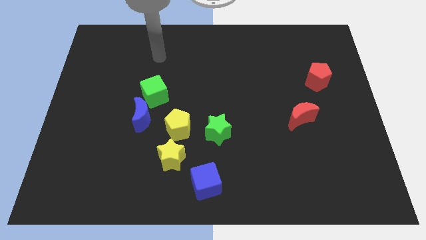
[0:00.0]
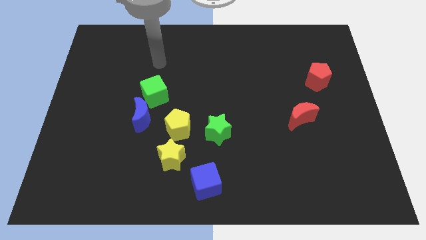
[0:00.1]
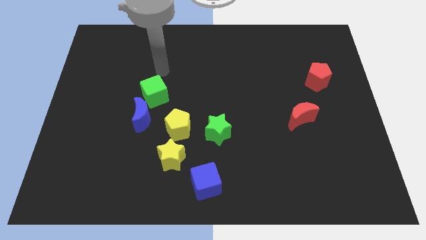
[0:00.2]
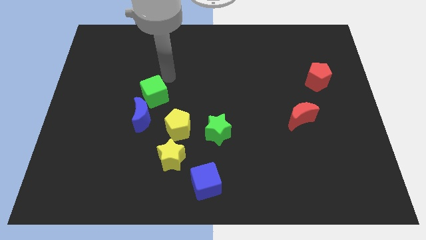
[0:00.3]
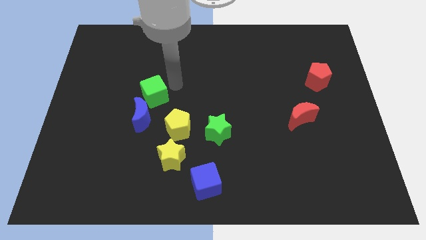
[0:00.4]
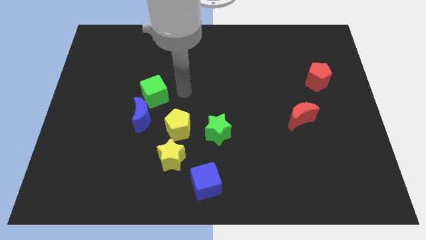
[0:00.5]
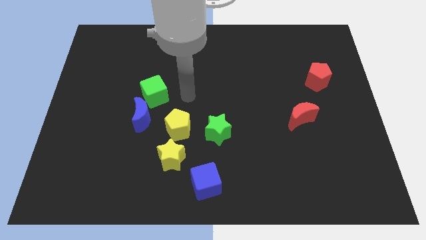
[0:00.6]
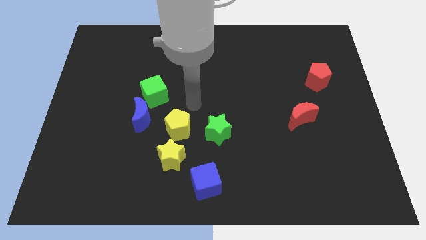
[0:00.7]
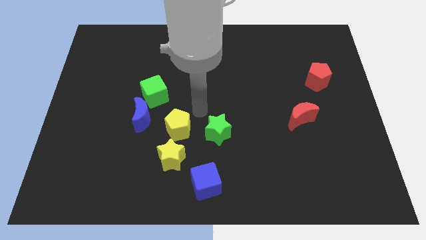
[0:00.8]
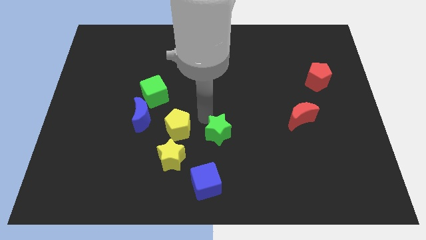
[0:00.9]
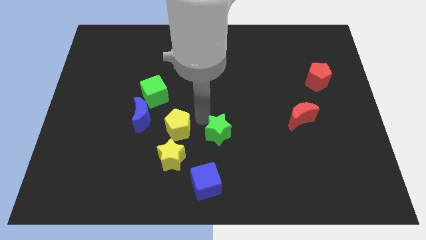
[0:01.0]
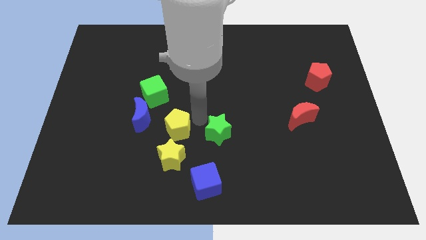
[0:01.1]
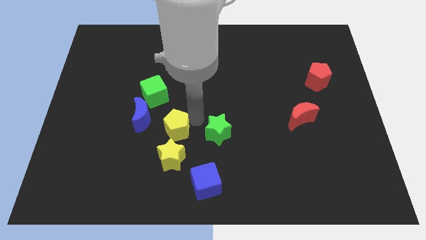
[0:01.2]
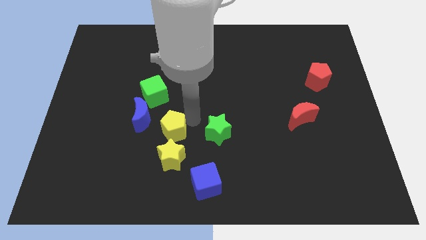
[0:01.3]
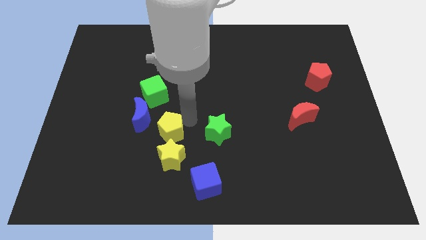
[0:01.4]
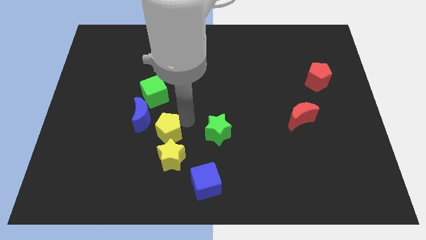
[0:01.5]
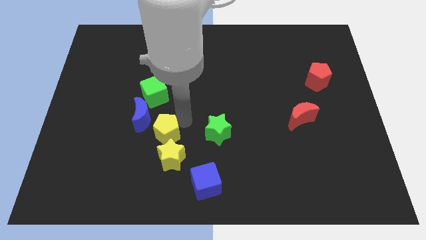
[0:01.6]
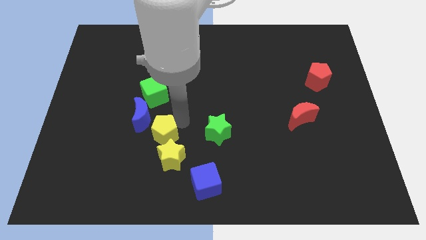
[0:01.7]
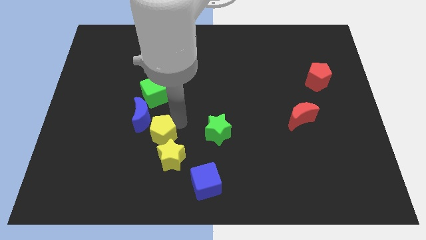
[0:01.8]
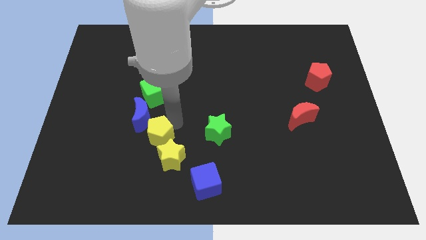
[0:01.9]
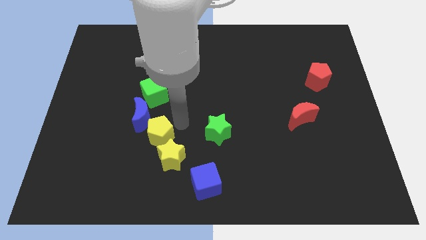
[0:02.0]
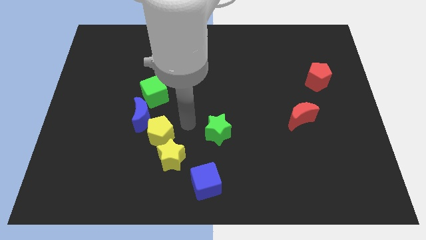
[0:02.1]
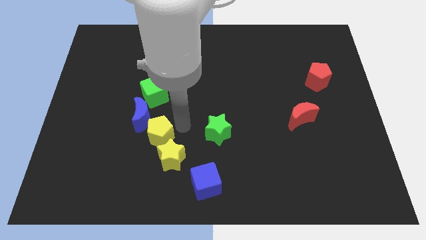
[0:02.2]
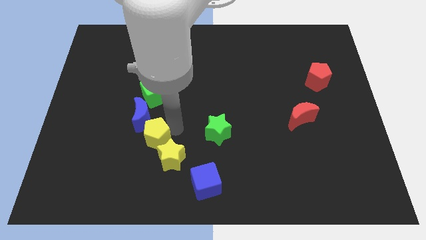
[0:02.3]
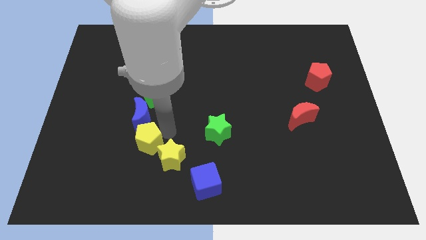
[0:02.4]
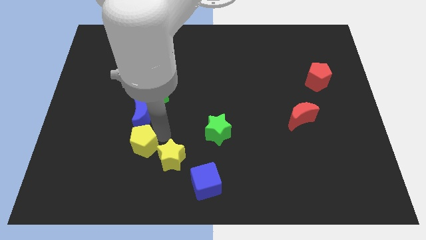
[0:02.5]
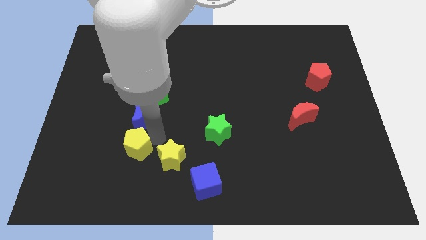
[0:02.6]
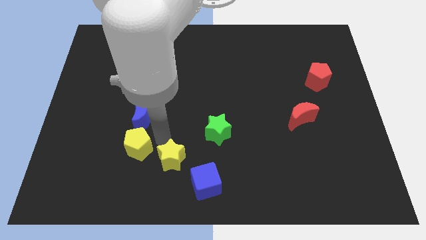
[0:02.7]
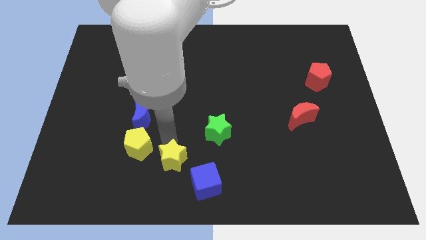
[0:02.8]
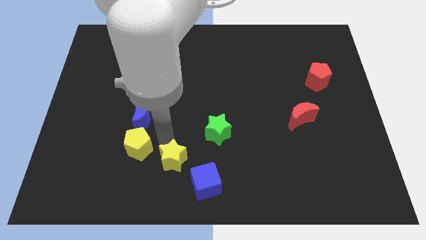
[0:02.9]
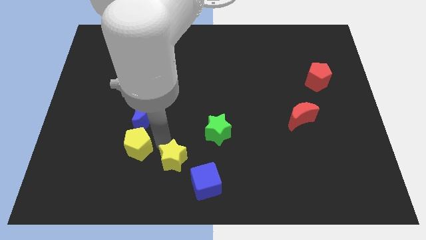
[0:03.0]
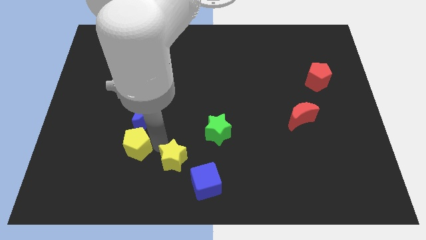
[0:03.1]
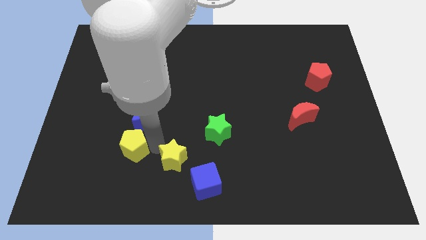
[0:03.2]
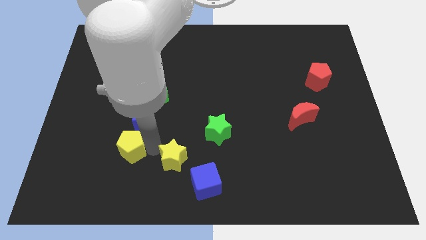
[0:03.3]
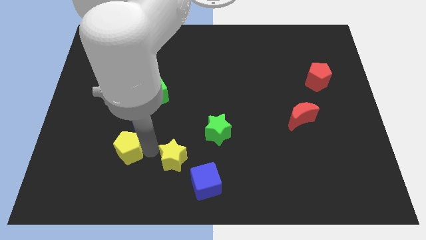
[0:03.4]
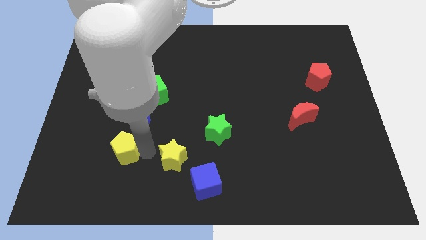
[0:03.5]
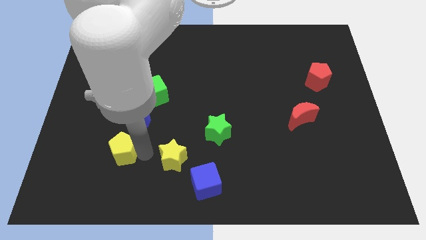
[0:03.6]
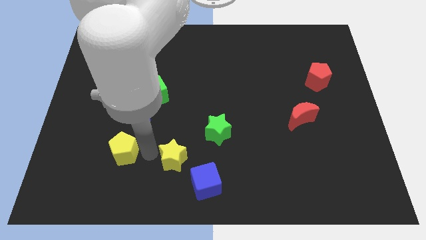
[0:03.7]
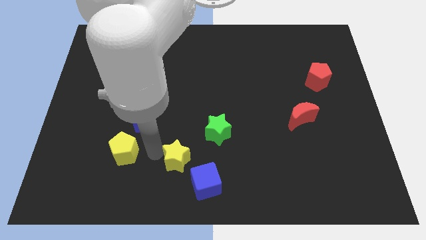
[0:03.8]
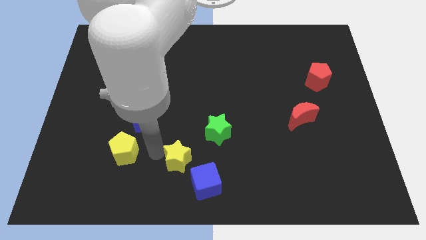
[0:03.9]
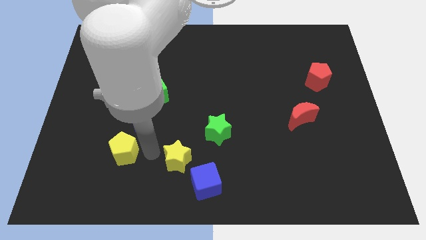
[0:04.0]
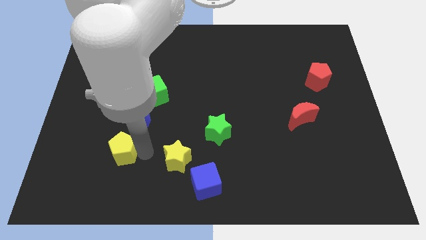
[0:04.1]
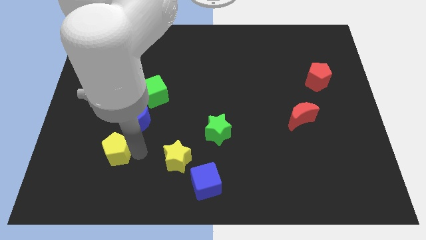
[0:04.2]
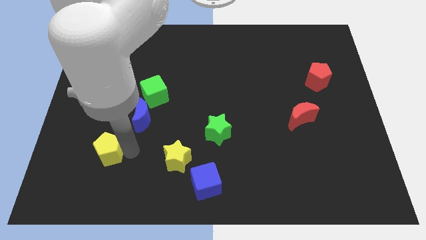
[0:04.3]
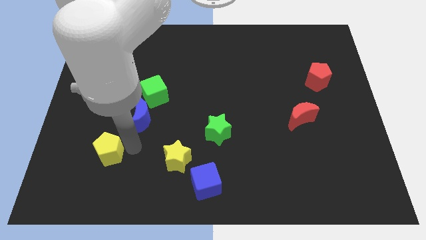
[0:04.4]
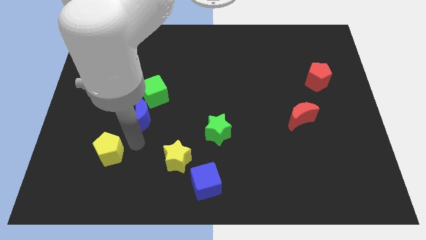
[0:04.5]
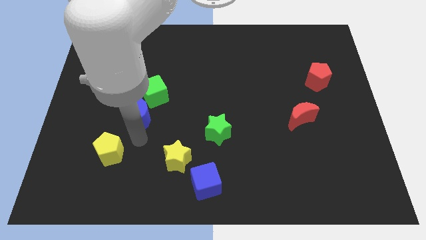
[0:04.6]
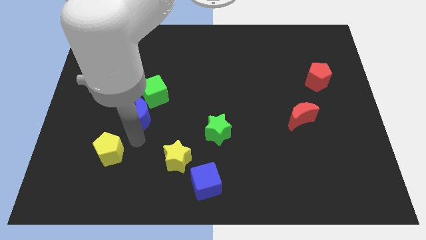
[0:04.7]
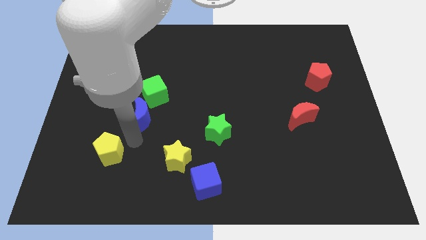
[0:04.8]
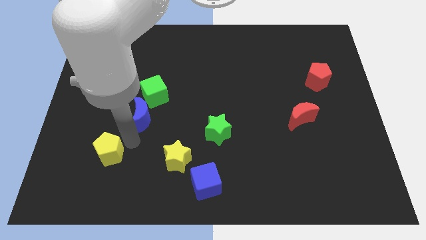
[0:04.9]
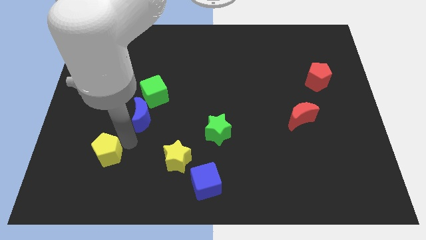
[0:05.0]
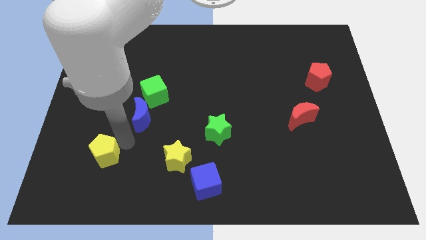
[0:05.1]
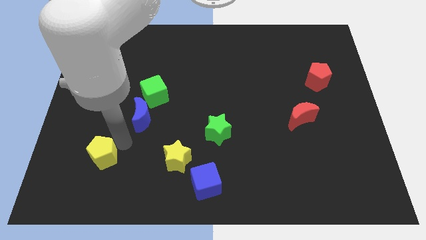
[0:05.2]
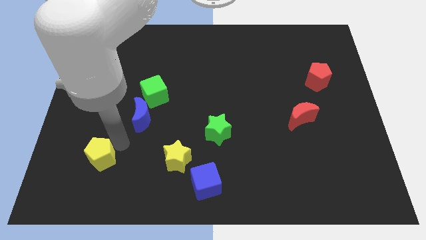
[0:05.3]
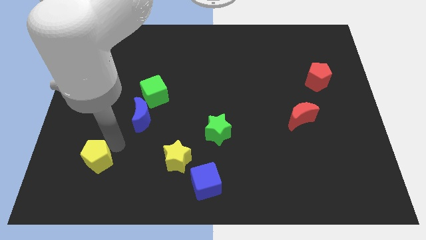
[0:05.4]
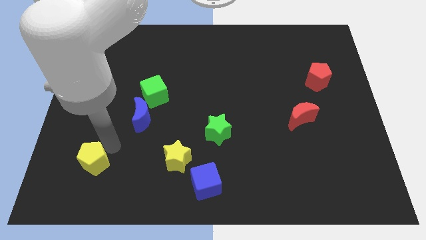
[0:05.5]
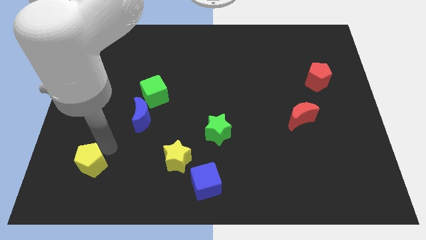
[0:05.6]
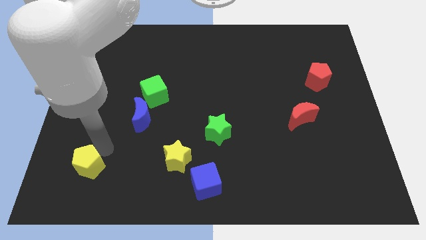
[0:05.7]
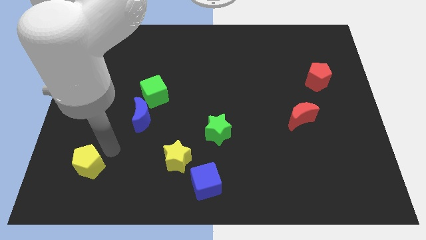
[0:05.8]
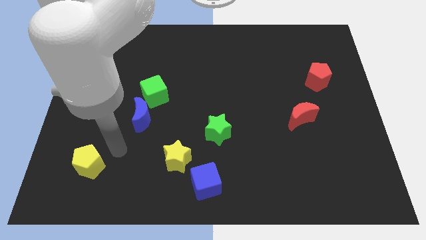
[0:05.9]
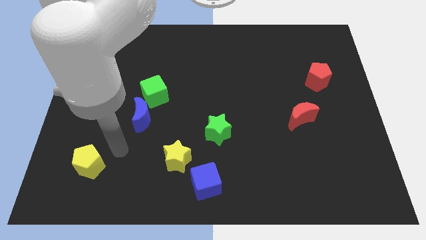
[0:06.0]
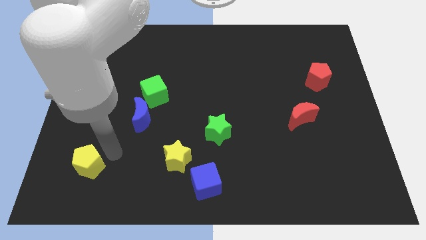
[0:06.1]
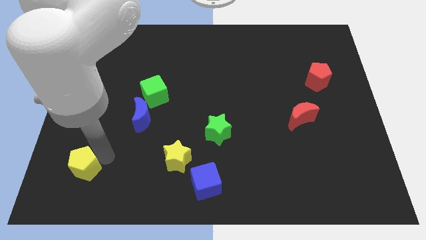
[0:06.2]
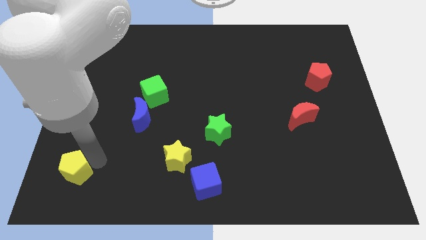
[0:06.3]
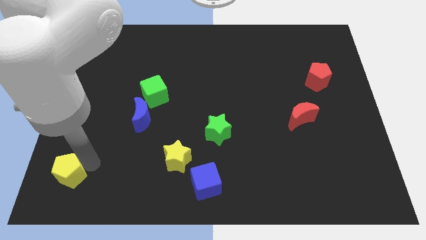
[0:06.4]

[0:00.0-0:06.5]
slide the yellow pentagon to the bottom left
